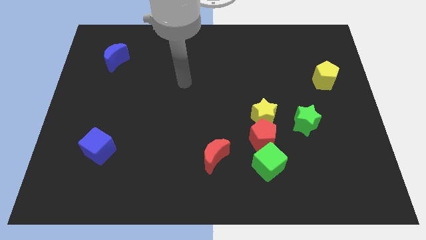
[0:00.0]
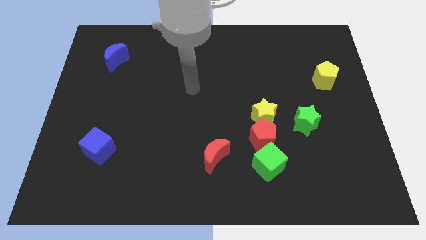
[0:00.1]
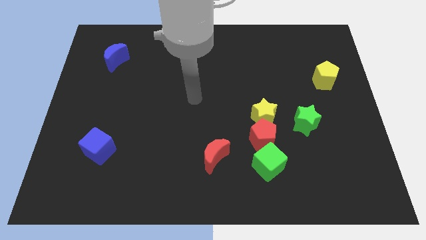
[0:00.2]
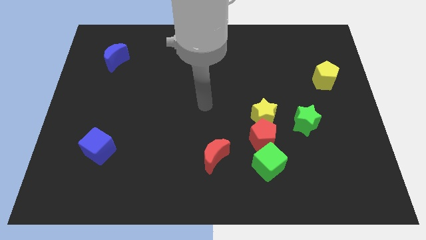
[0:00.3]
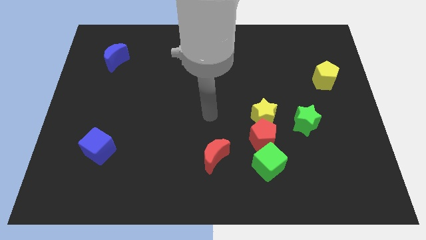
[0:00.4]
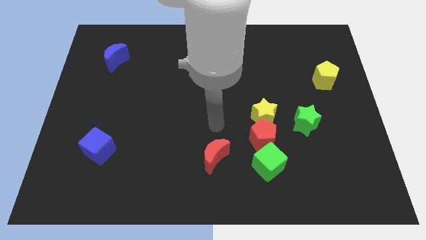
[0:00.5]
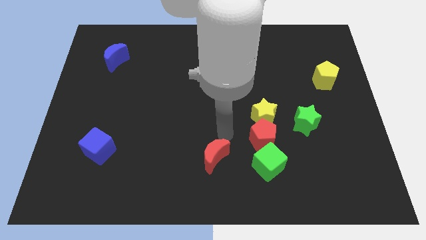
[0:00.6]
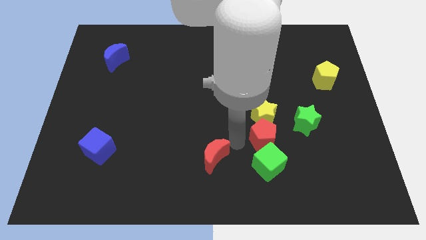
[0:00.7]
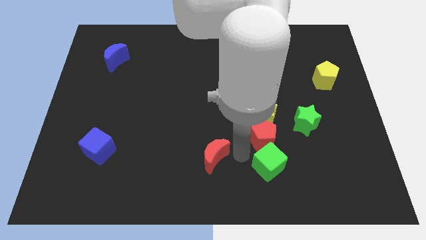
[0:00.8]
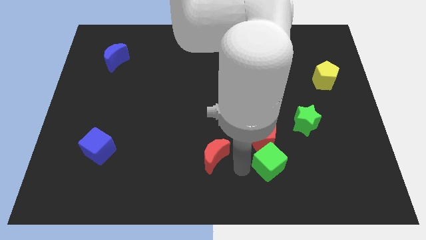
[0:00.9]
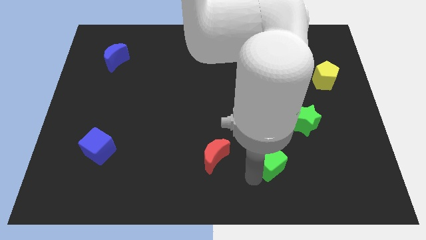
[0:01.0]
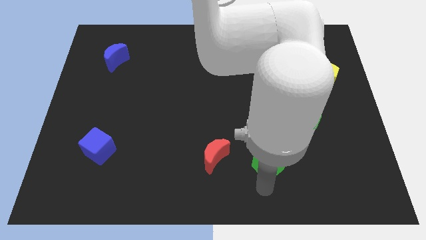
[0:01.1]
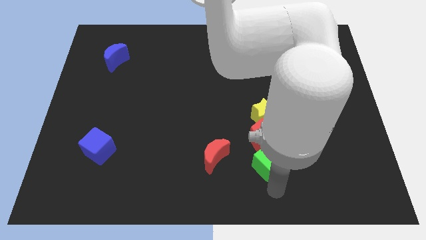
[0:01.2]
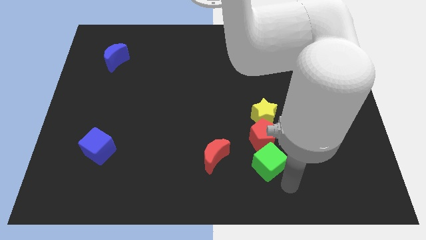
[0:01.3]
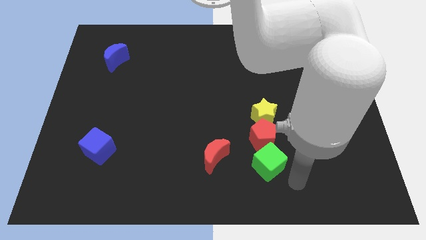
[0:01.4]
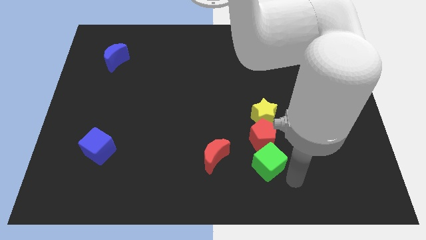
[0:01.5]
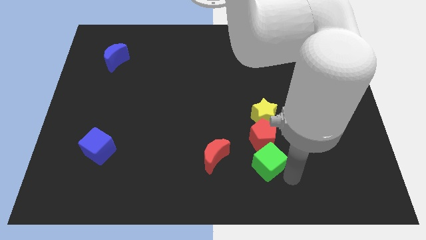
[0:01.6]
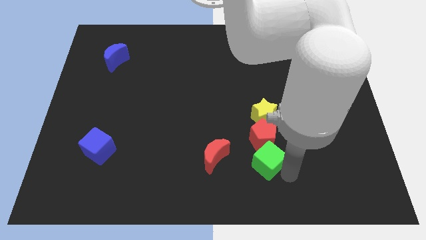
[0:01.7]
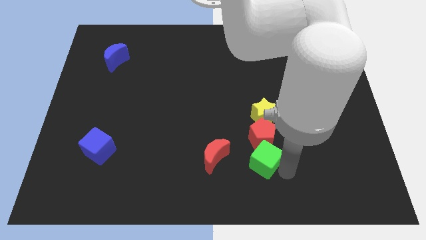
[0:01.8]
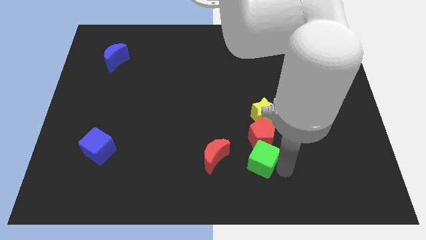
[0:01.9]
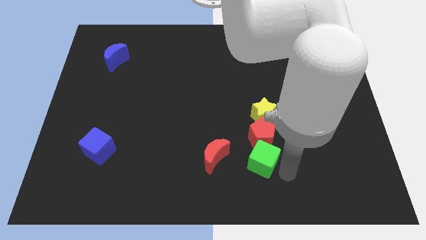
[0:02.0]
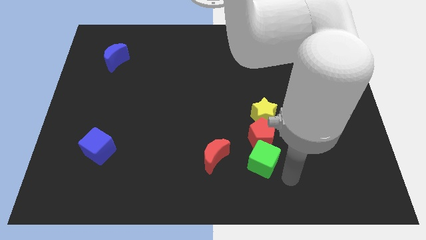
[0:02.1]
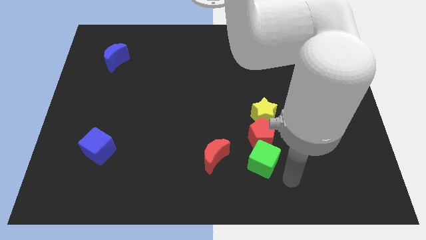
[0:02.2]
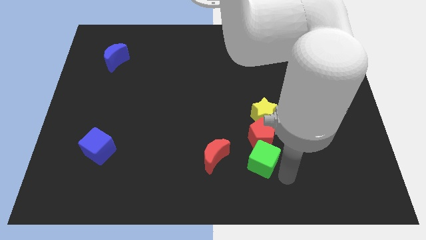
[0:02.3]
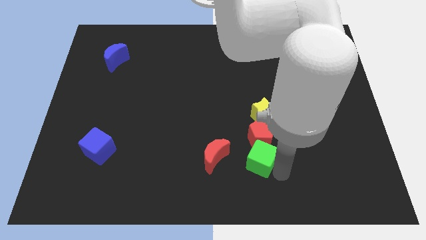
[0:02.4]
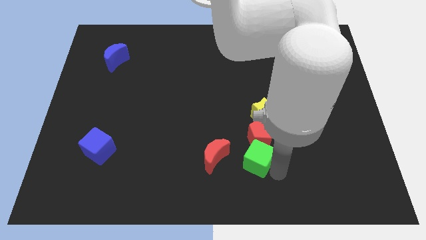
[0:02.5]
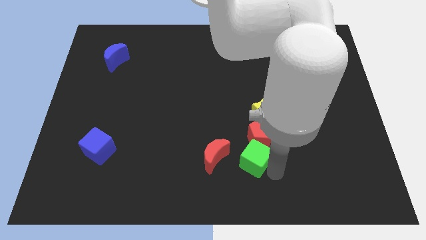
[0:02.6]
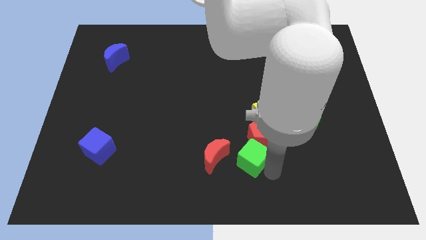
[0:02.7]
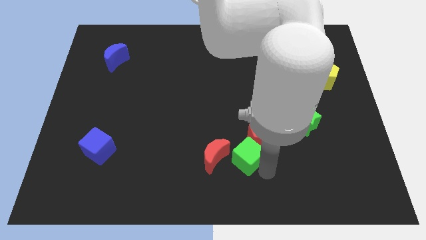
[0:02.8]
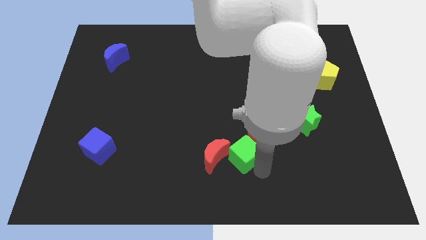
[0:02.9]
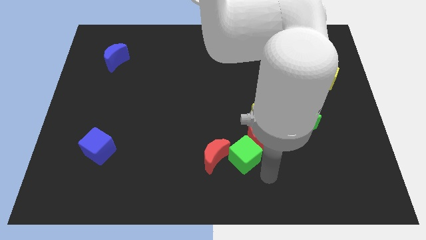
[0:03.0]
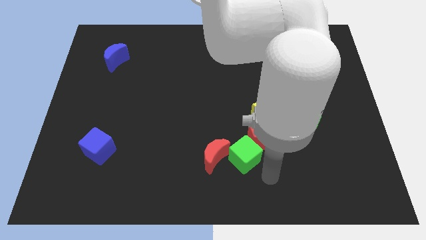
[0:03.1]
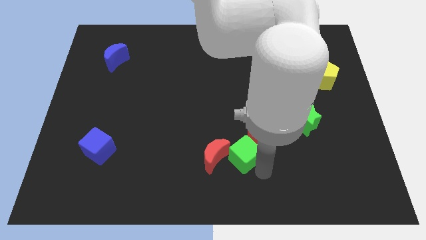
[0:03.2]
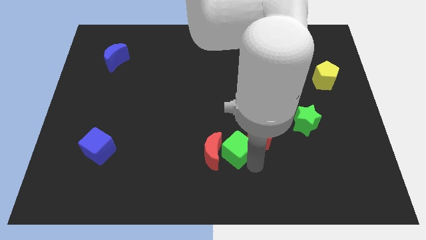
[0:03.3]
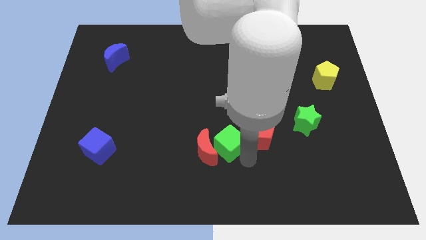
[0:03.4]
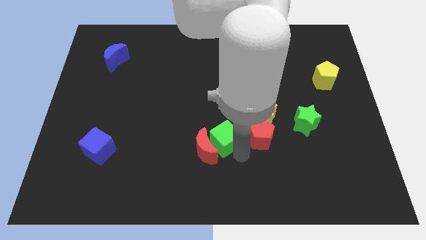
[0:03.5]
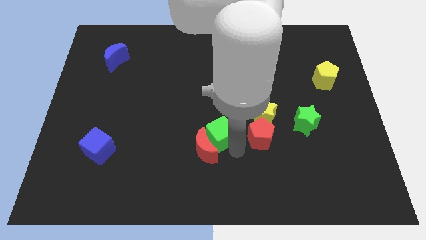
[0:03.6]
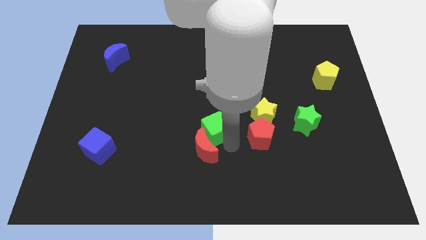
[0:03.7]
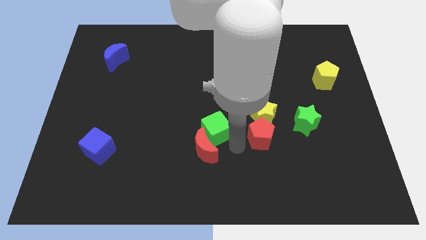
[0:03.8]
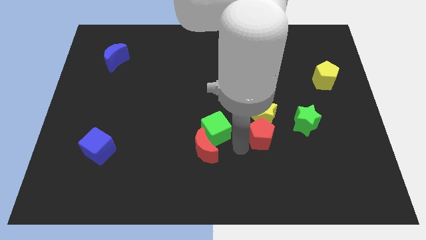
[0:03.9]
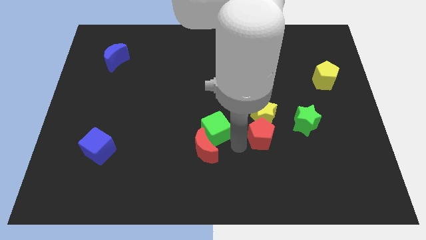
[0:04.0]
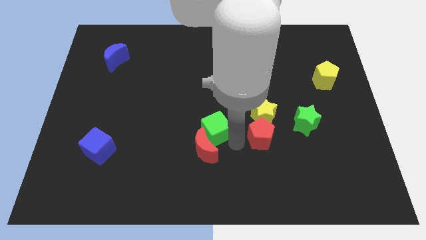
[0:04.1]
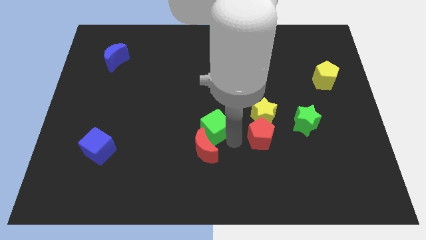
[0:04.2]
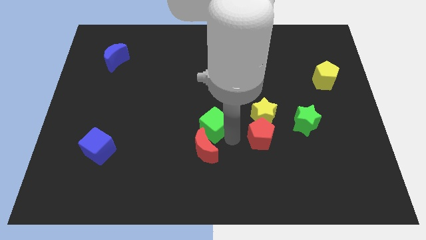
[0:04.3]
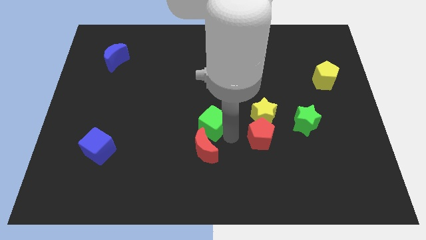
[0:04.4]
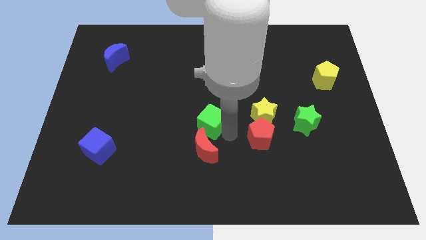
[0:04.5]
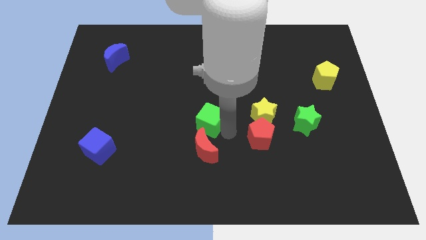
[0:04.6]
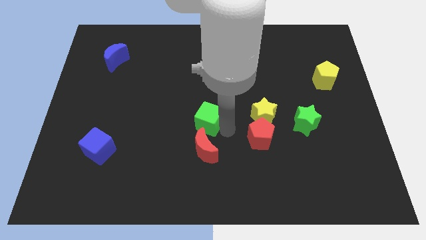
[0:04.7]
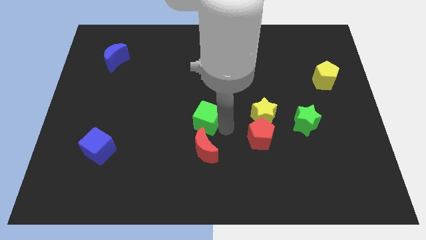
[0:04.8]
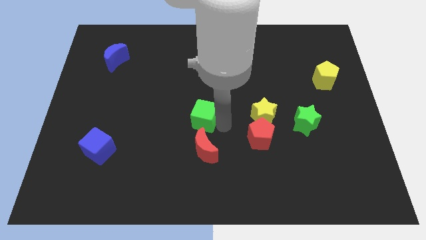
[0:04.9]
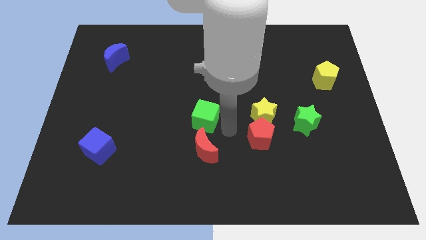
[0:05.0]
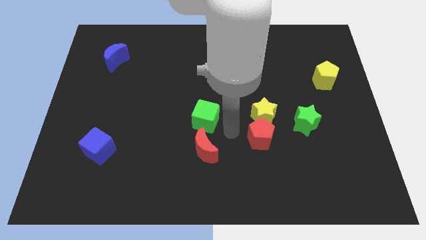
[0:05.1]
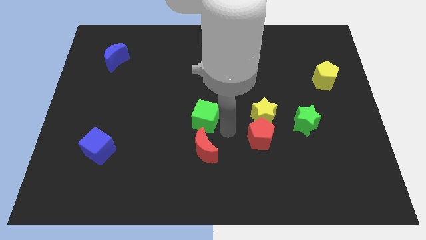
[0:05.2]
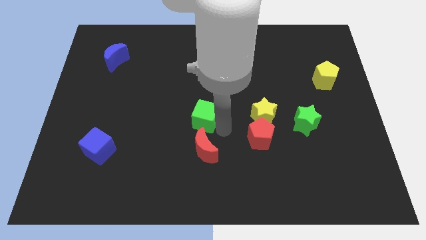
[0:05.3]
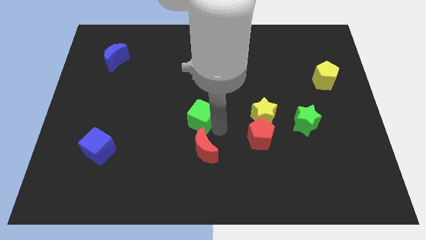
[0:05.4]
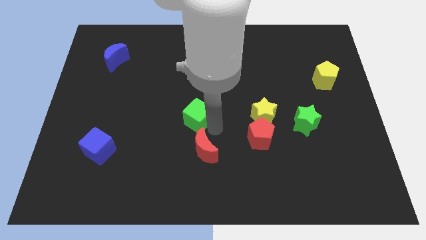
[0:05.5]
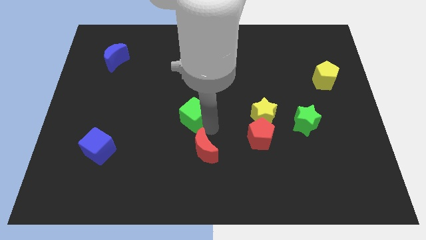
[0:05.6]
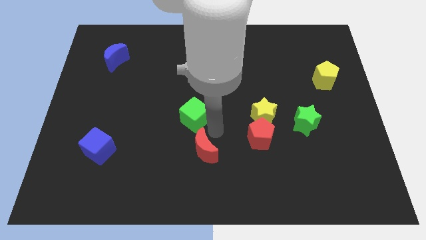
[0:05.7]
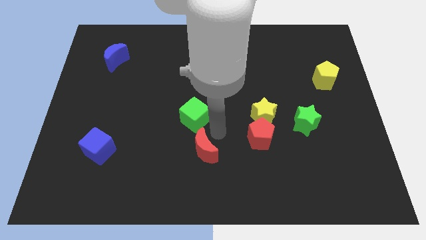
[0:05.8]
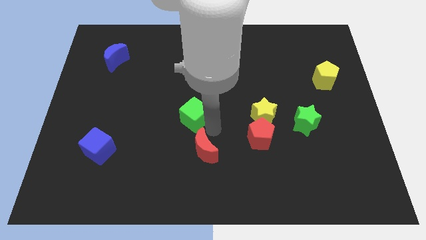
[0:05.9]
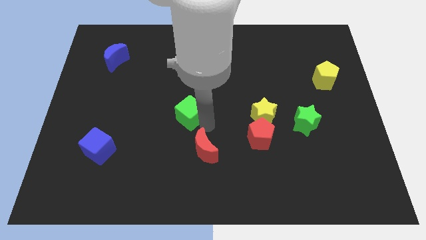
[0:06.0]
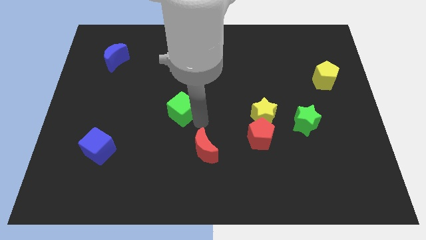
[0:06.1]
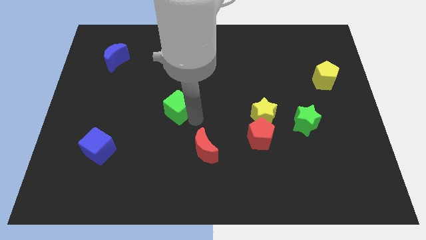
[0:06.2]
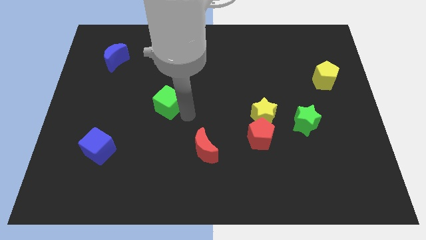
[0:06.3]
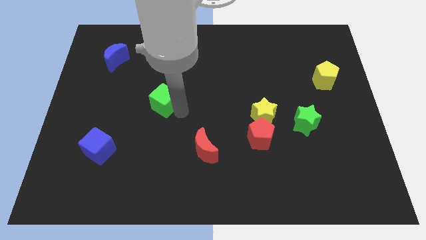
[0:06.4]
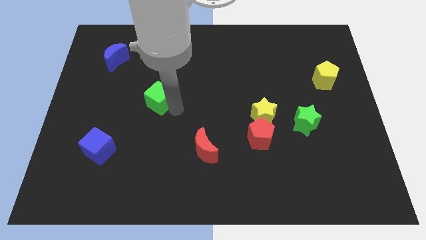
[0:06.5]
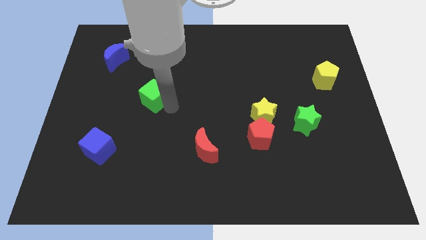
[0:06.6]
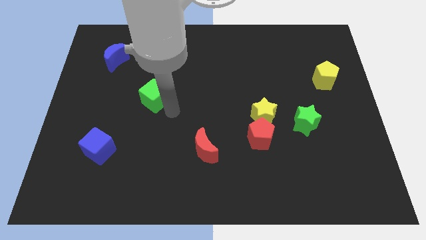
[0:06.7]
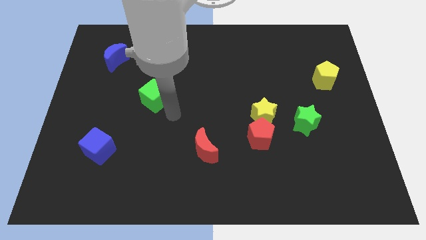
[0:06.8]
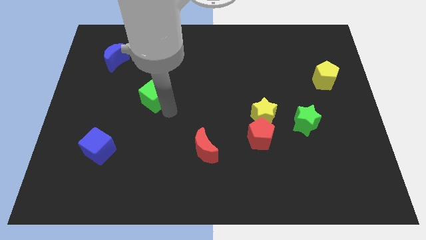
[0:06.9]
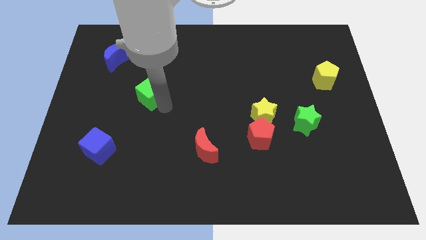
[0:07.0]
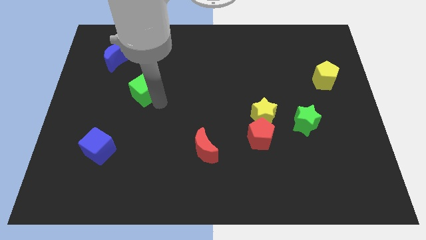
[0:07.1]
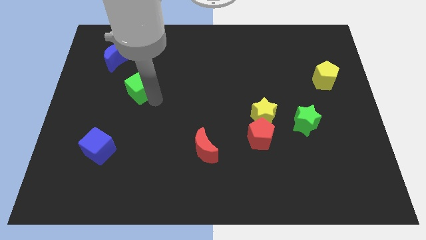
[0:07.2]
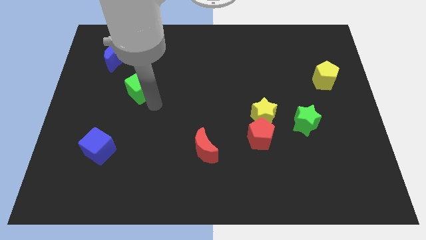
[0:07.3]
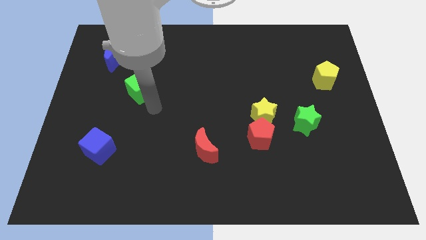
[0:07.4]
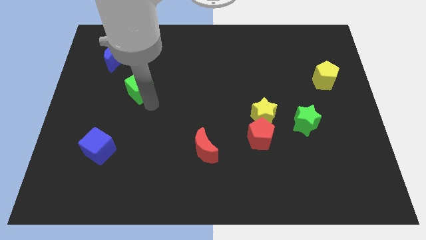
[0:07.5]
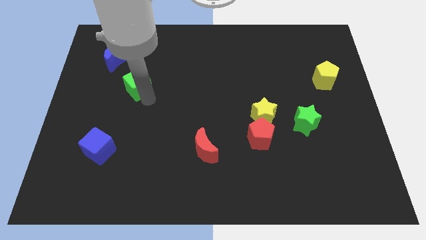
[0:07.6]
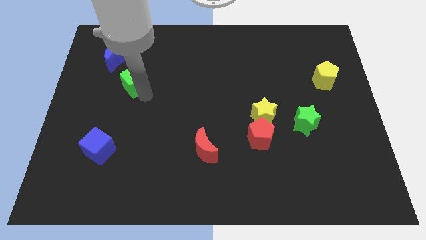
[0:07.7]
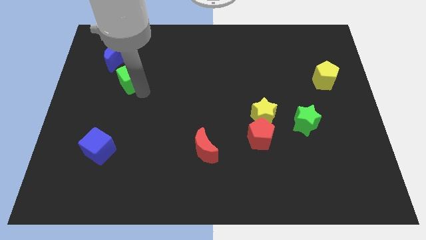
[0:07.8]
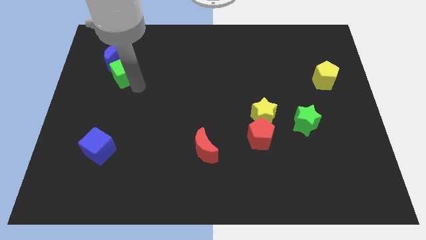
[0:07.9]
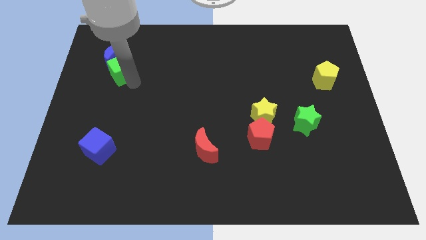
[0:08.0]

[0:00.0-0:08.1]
push the green cube next to the blue moon
